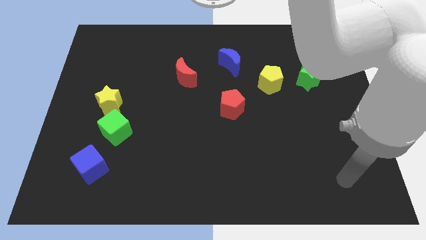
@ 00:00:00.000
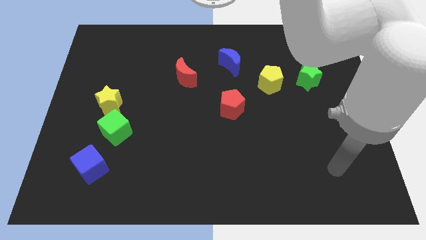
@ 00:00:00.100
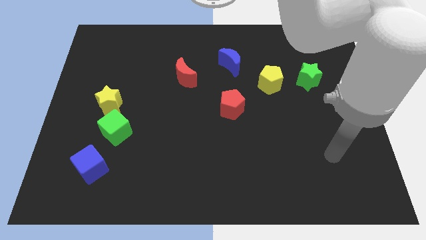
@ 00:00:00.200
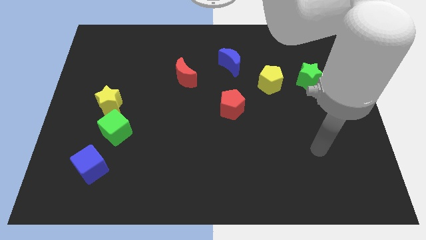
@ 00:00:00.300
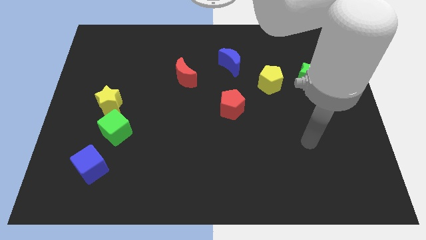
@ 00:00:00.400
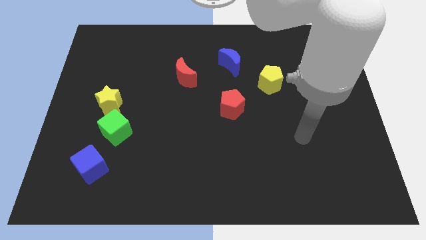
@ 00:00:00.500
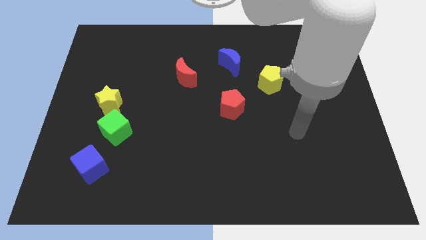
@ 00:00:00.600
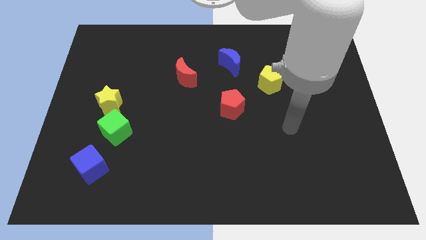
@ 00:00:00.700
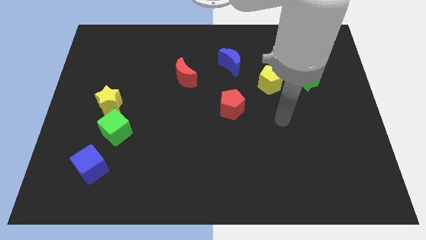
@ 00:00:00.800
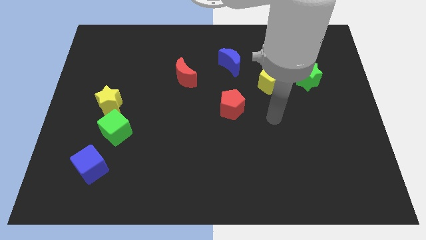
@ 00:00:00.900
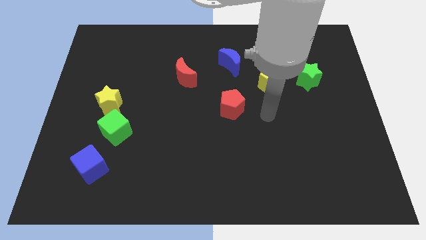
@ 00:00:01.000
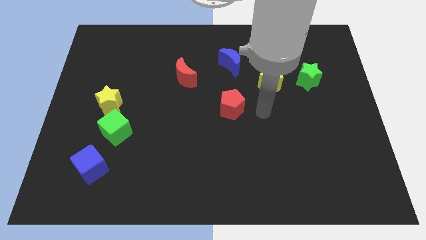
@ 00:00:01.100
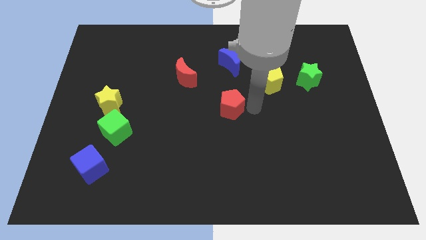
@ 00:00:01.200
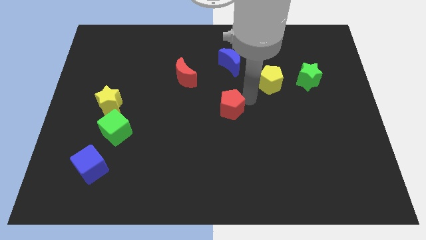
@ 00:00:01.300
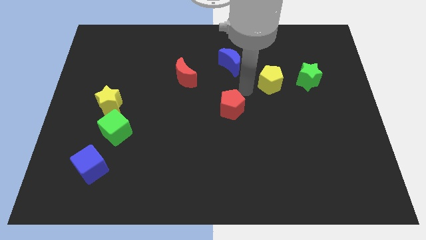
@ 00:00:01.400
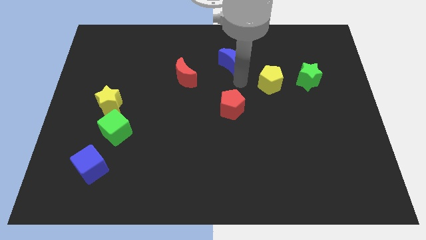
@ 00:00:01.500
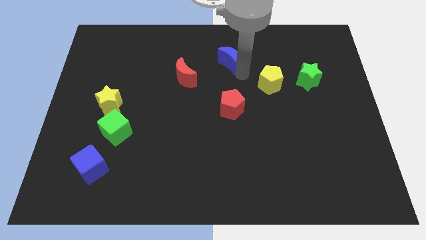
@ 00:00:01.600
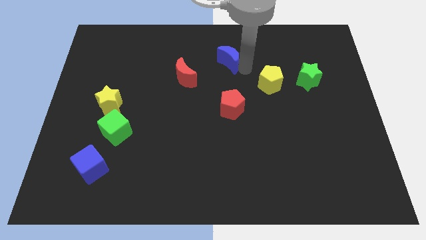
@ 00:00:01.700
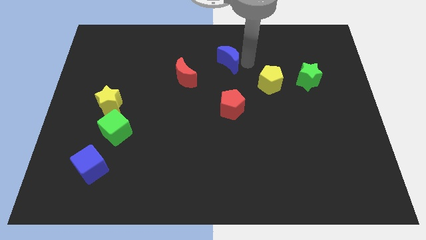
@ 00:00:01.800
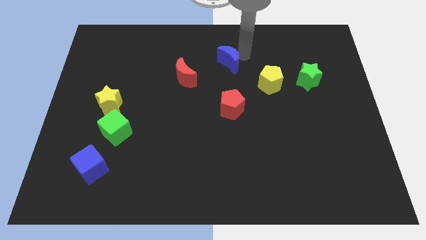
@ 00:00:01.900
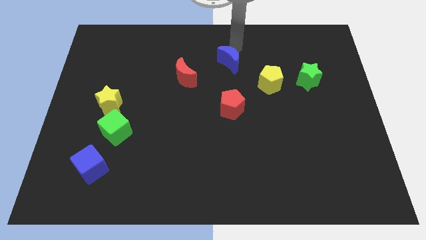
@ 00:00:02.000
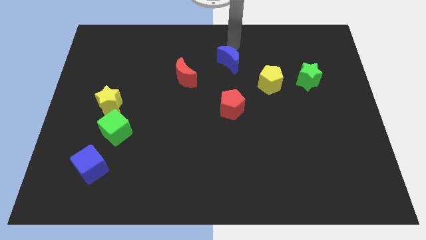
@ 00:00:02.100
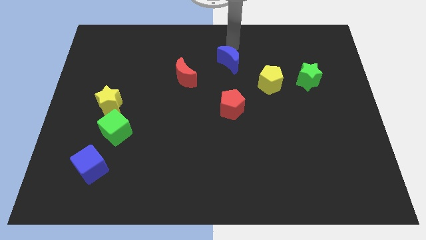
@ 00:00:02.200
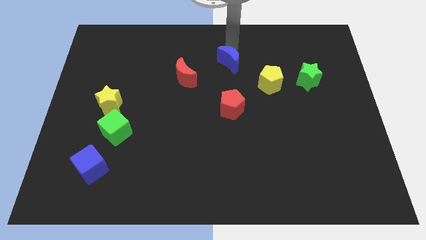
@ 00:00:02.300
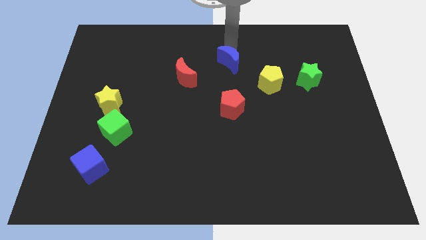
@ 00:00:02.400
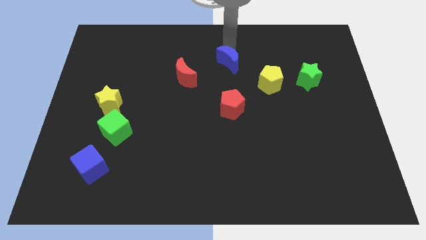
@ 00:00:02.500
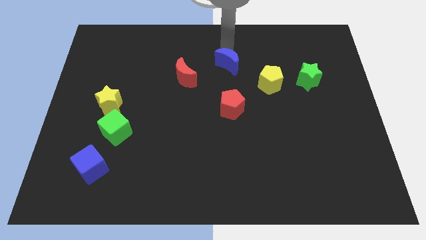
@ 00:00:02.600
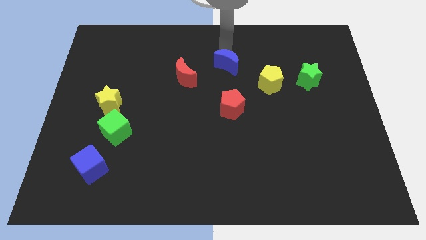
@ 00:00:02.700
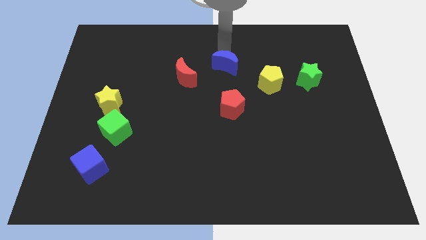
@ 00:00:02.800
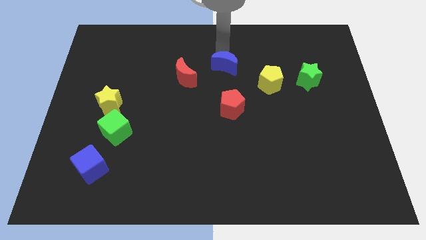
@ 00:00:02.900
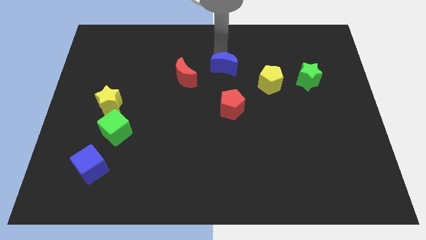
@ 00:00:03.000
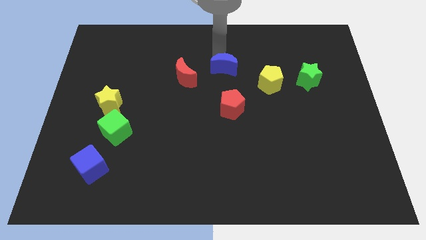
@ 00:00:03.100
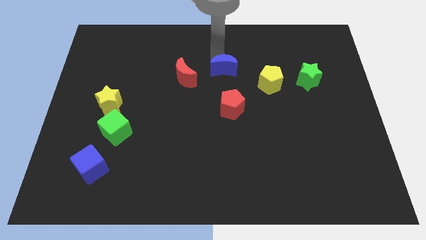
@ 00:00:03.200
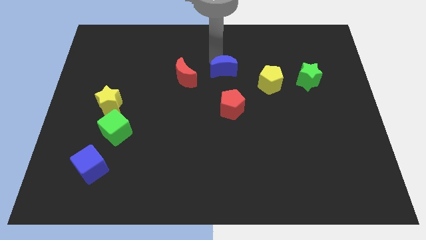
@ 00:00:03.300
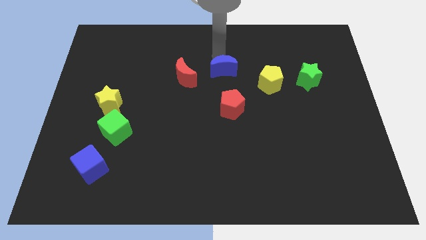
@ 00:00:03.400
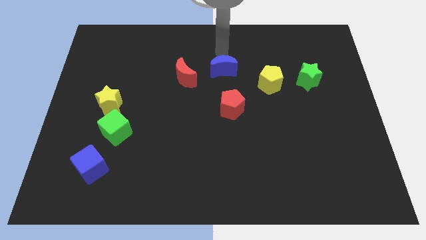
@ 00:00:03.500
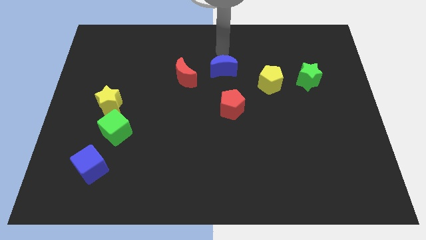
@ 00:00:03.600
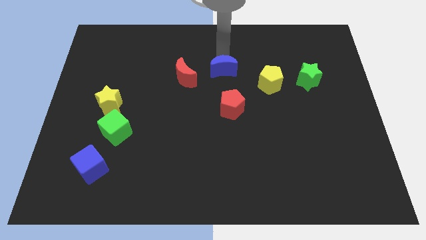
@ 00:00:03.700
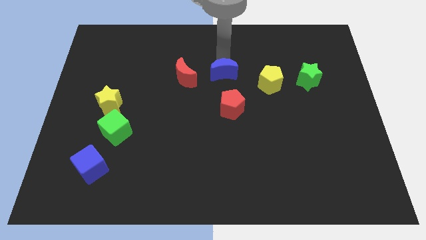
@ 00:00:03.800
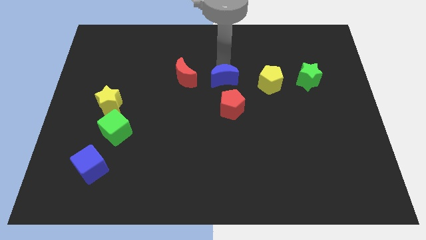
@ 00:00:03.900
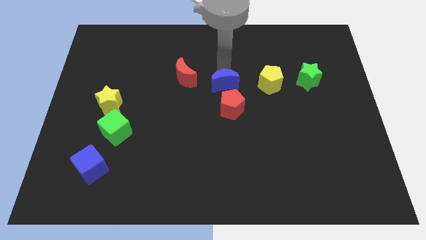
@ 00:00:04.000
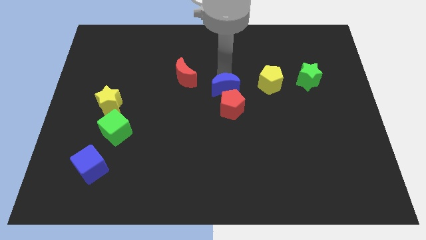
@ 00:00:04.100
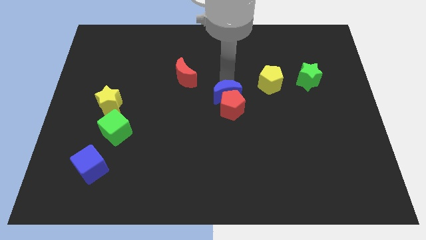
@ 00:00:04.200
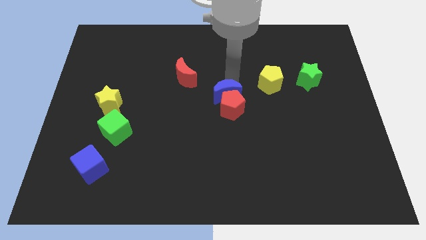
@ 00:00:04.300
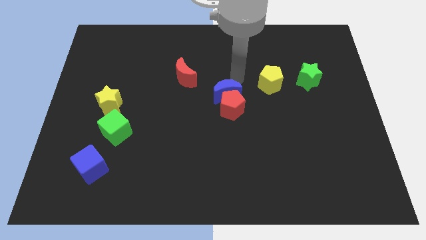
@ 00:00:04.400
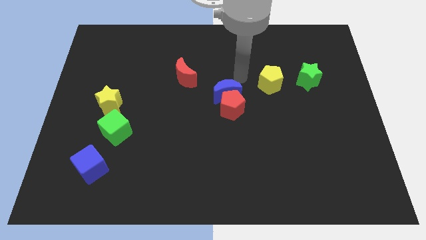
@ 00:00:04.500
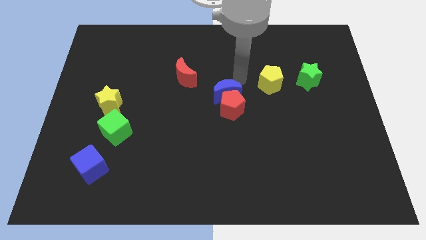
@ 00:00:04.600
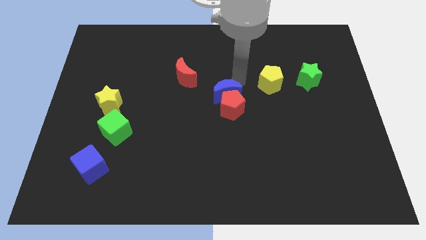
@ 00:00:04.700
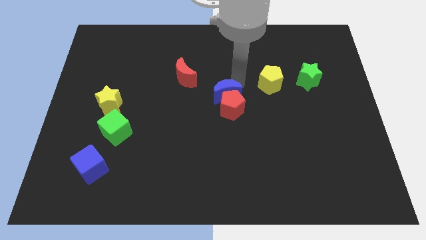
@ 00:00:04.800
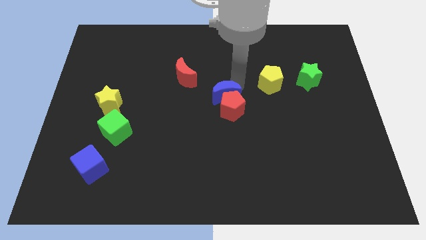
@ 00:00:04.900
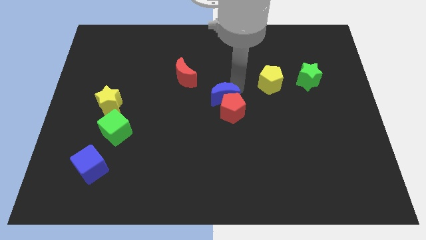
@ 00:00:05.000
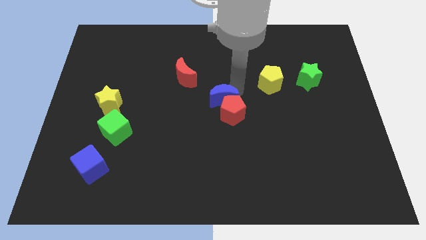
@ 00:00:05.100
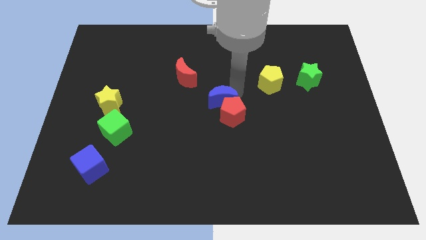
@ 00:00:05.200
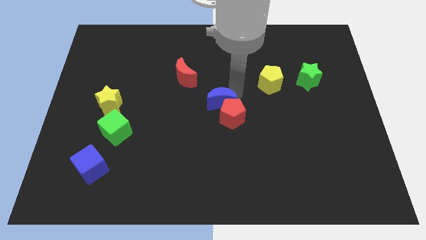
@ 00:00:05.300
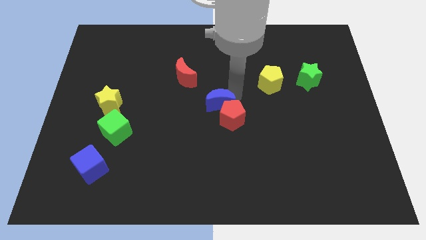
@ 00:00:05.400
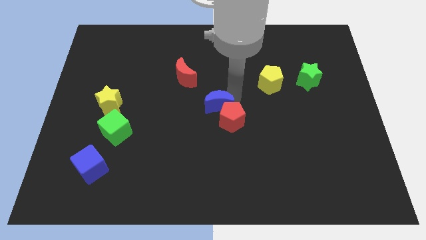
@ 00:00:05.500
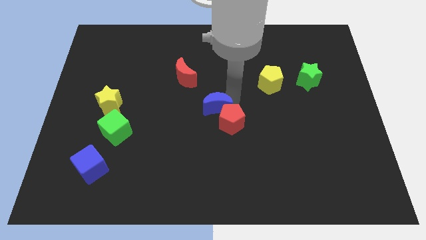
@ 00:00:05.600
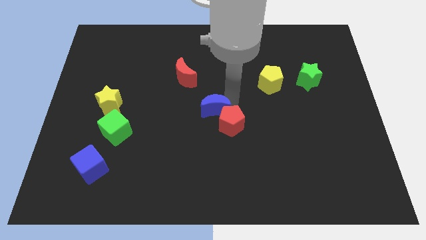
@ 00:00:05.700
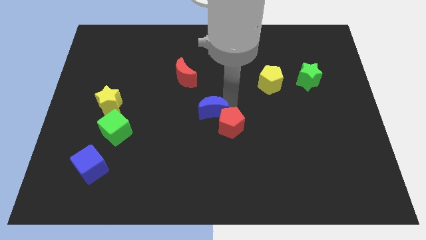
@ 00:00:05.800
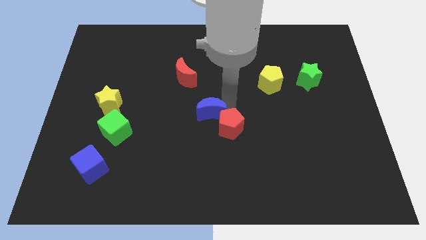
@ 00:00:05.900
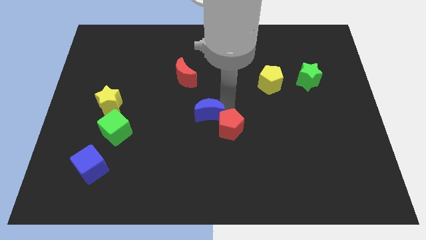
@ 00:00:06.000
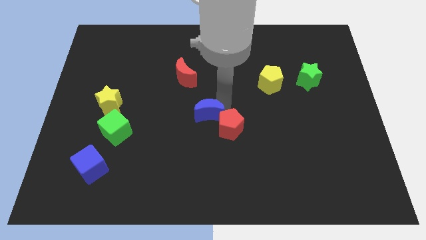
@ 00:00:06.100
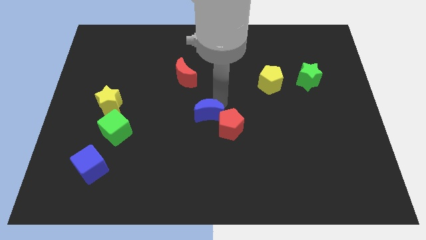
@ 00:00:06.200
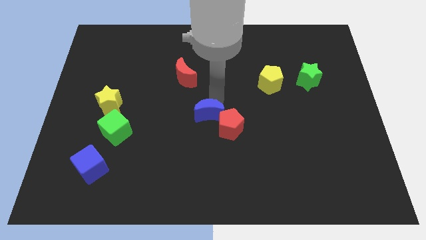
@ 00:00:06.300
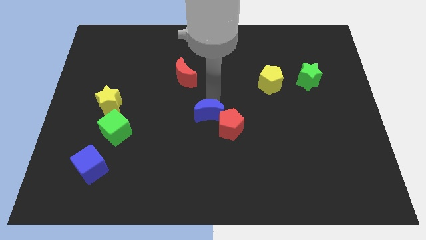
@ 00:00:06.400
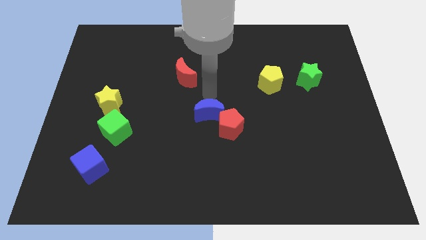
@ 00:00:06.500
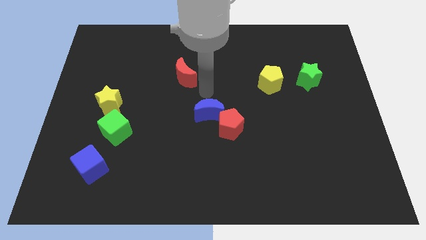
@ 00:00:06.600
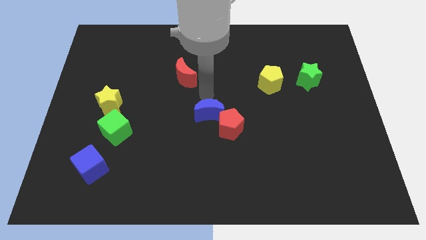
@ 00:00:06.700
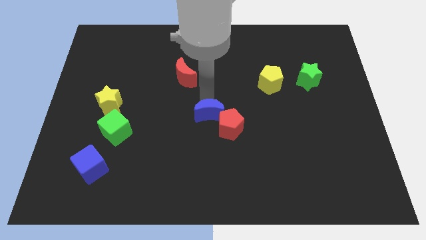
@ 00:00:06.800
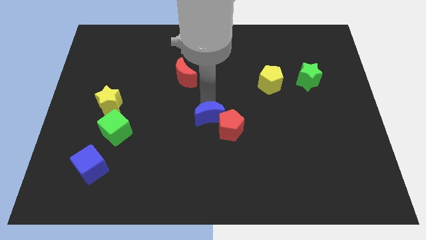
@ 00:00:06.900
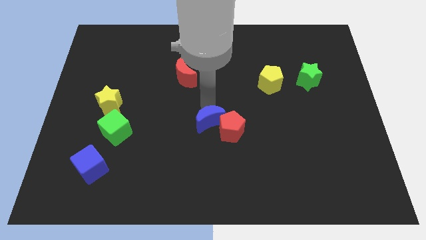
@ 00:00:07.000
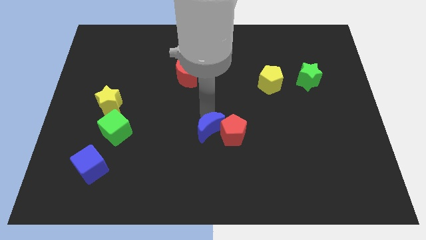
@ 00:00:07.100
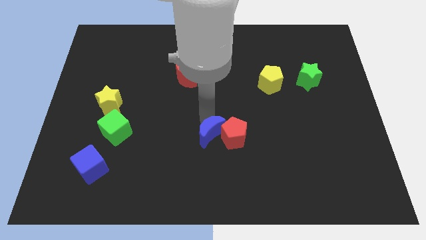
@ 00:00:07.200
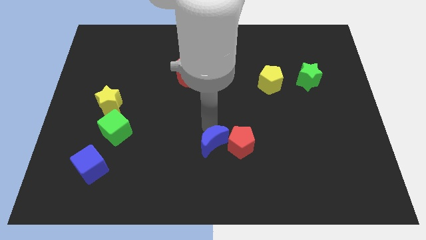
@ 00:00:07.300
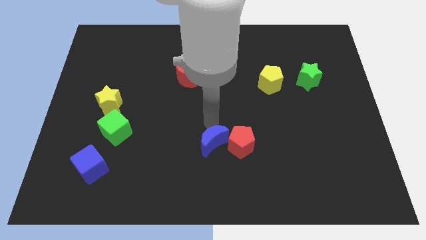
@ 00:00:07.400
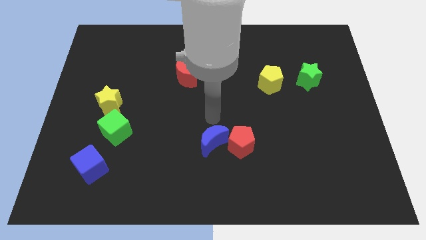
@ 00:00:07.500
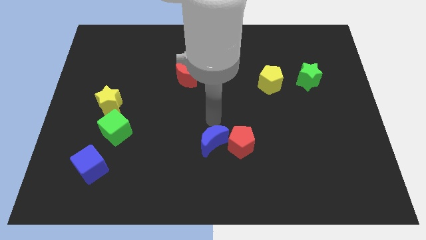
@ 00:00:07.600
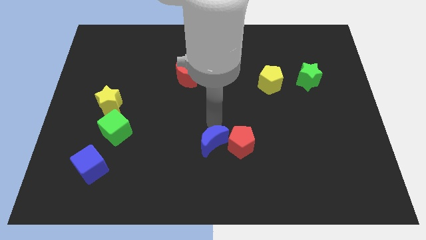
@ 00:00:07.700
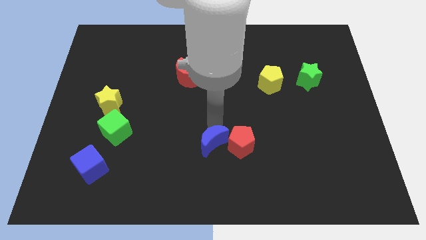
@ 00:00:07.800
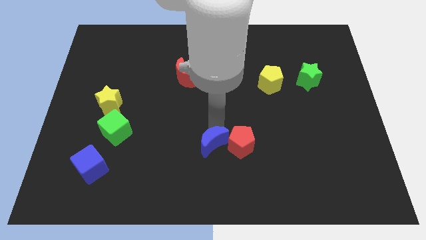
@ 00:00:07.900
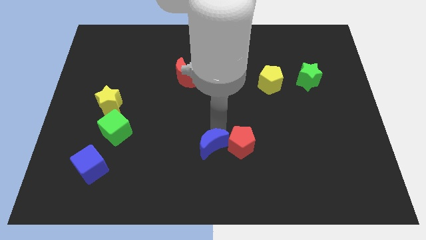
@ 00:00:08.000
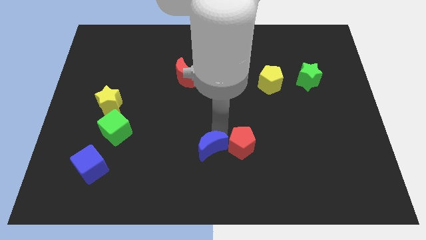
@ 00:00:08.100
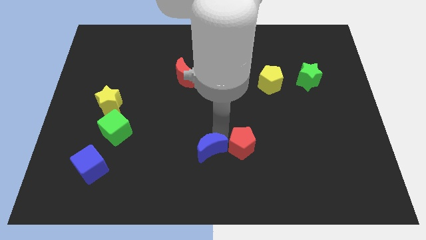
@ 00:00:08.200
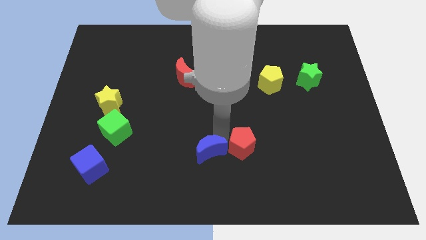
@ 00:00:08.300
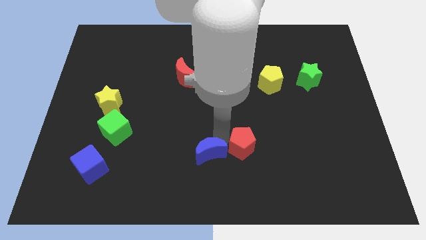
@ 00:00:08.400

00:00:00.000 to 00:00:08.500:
put the blue moon to the bottom
